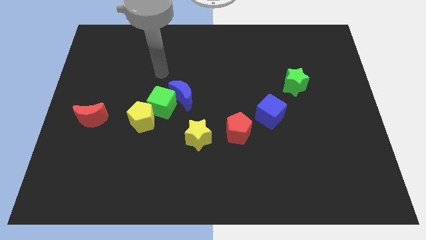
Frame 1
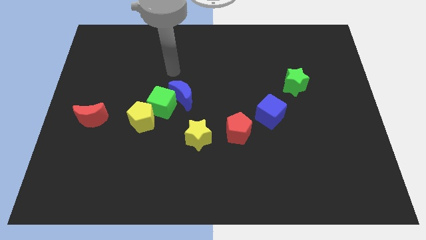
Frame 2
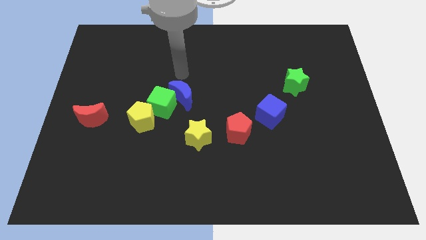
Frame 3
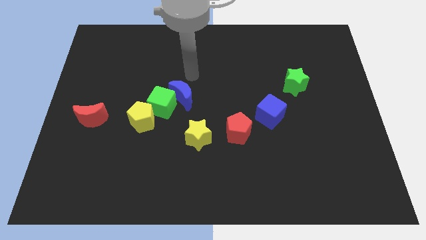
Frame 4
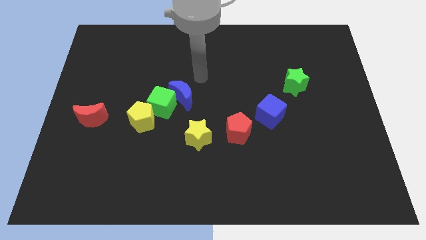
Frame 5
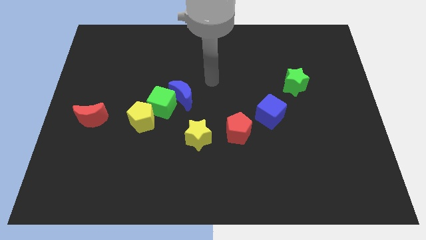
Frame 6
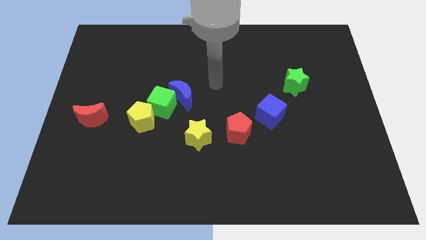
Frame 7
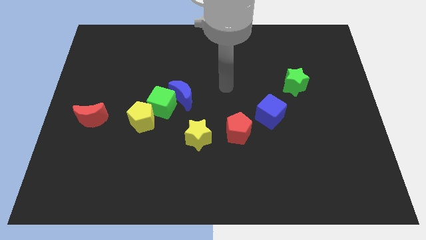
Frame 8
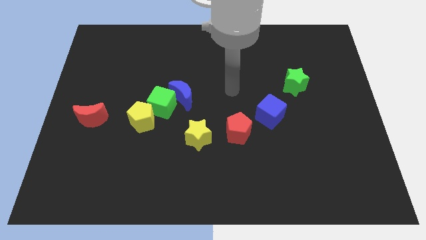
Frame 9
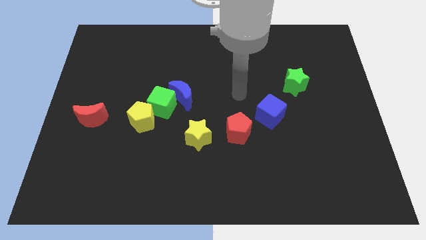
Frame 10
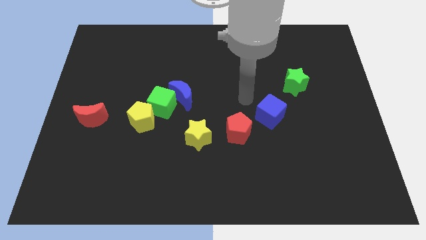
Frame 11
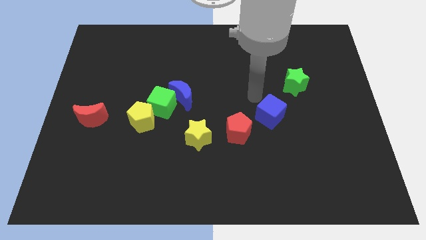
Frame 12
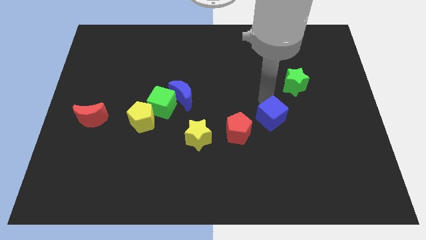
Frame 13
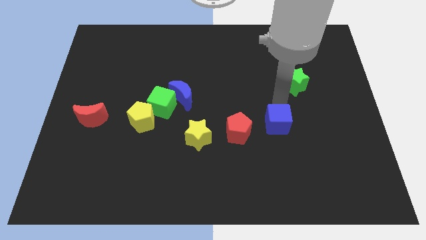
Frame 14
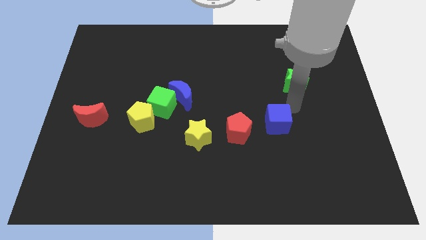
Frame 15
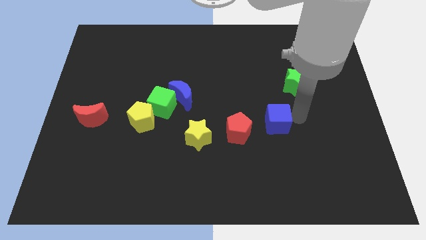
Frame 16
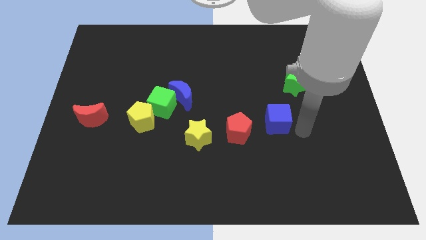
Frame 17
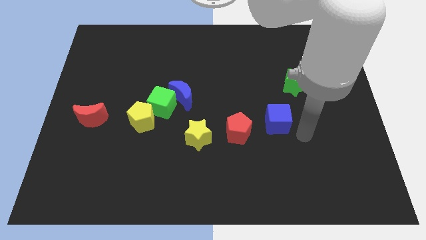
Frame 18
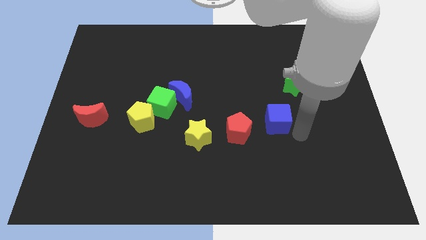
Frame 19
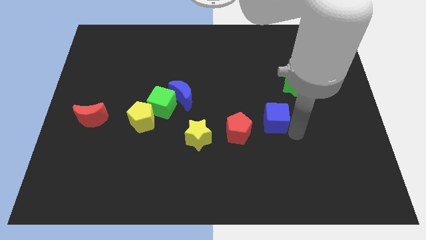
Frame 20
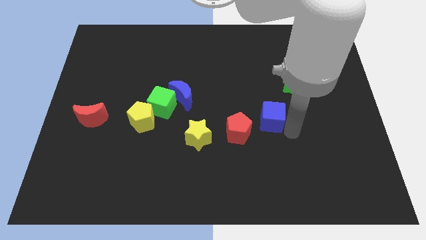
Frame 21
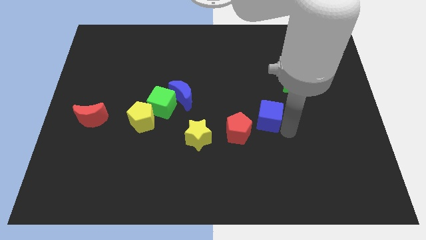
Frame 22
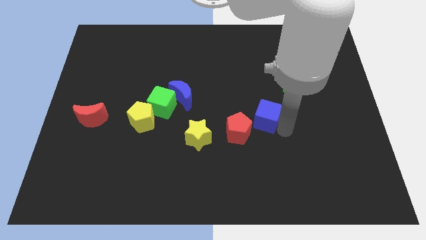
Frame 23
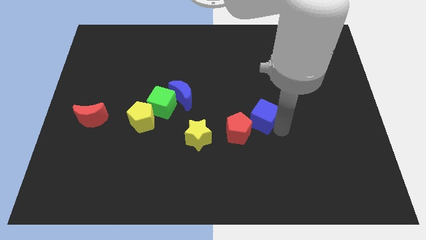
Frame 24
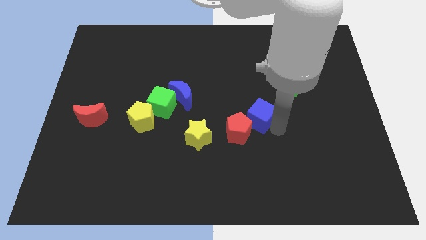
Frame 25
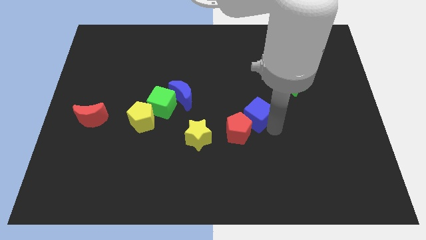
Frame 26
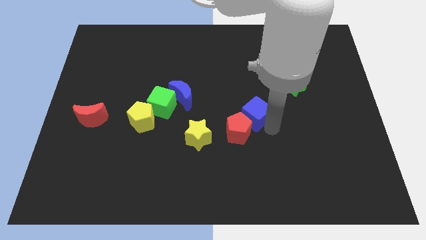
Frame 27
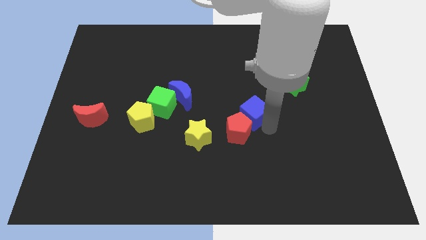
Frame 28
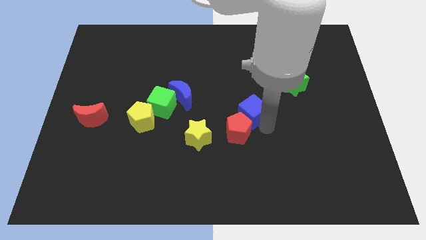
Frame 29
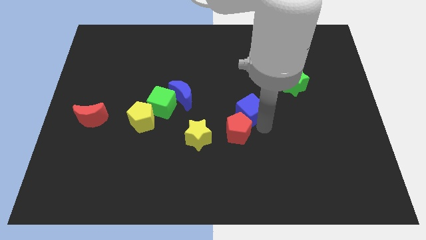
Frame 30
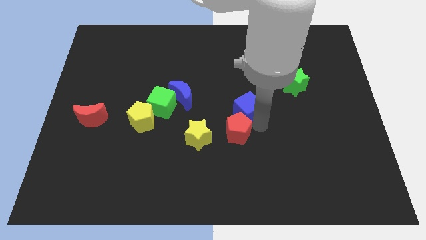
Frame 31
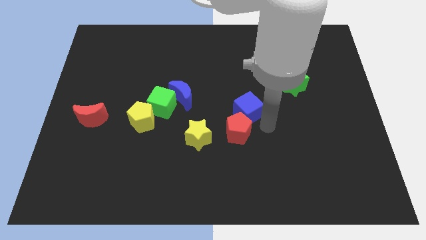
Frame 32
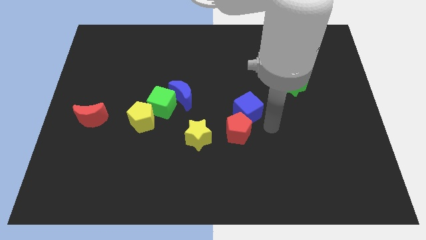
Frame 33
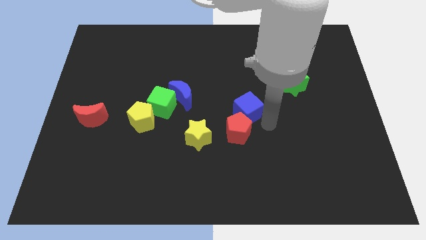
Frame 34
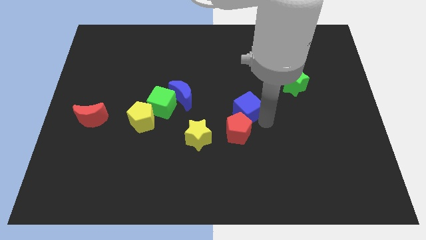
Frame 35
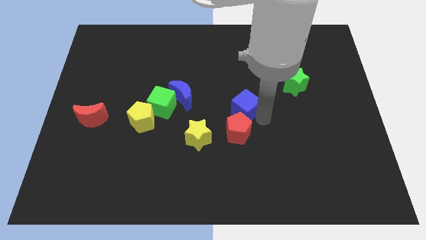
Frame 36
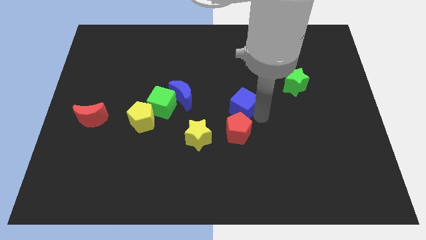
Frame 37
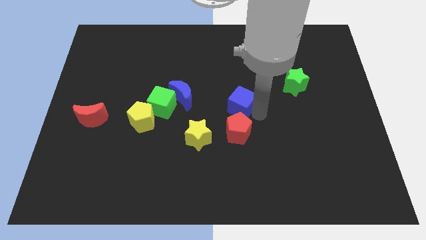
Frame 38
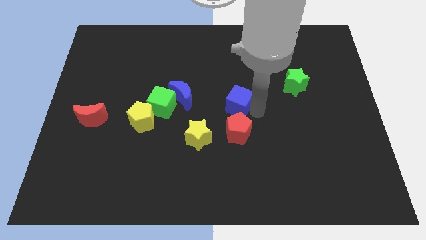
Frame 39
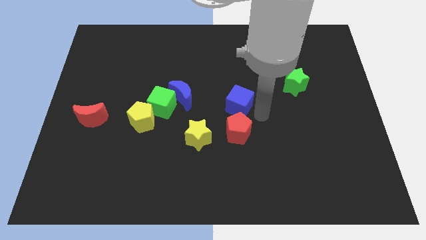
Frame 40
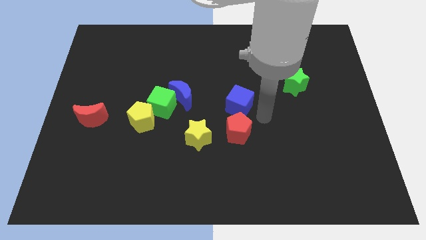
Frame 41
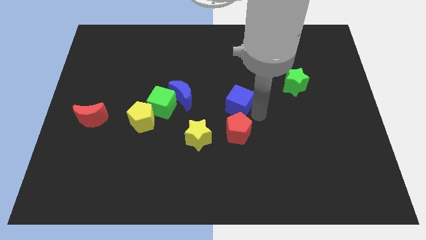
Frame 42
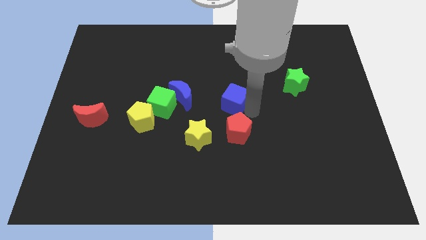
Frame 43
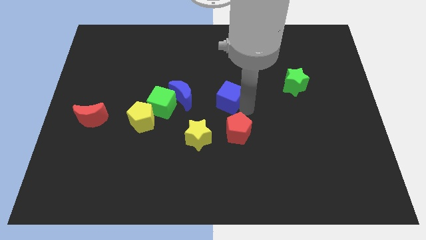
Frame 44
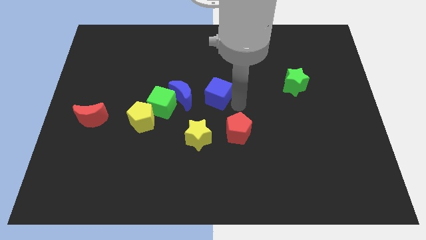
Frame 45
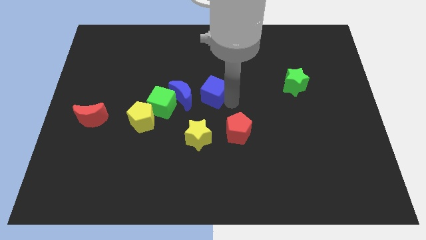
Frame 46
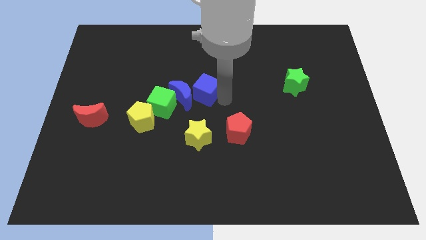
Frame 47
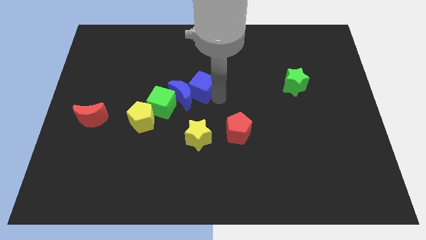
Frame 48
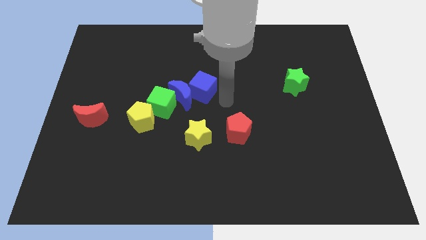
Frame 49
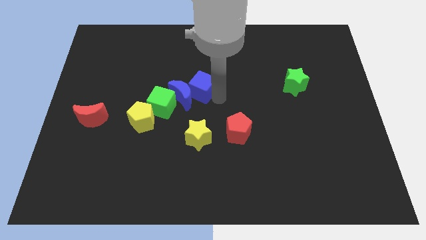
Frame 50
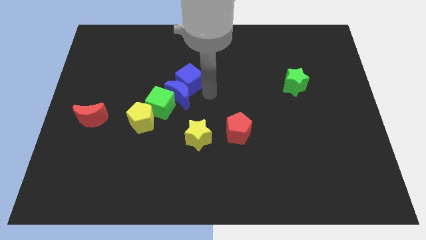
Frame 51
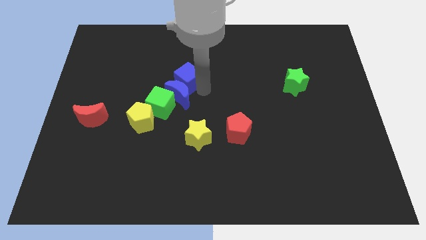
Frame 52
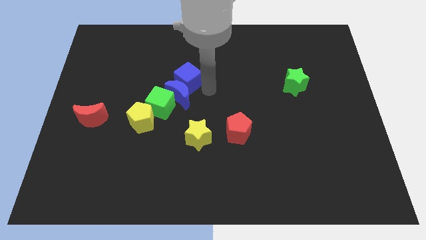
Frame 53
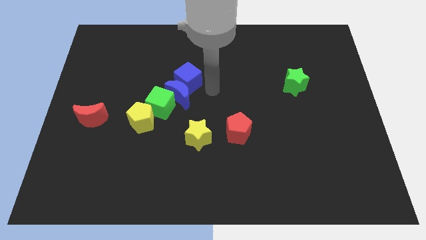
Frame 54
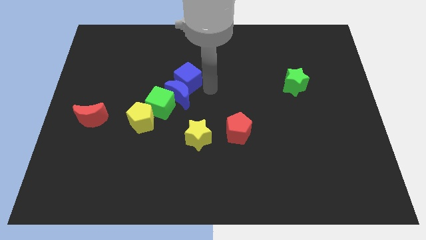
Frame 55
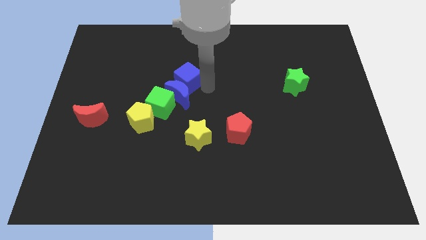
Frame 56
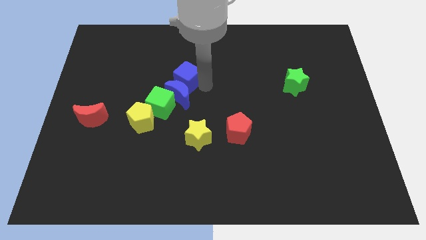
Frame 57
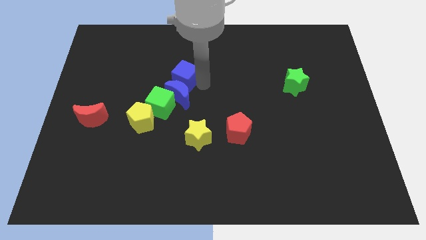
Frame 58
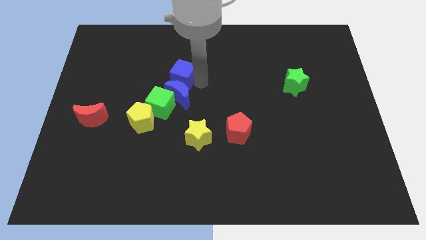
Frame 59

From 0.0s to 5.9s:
slide the blue cube above the green cube

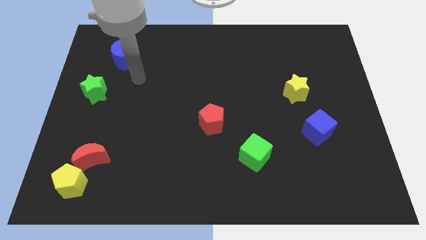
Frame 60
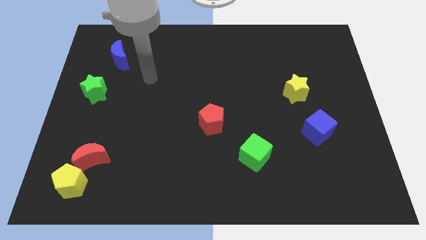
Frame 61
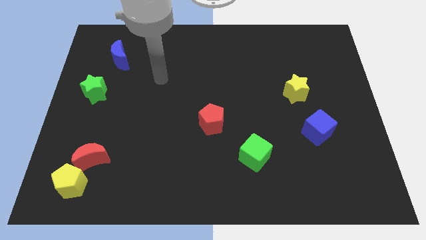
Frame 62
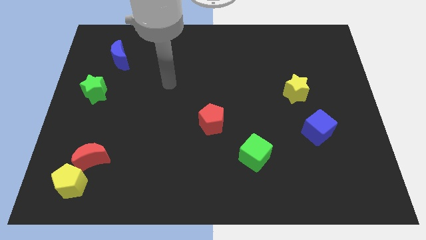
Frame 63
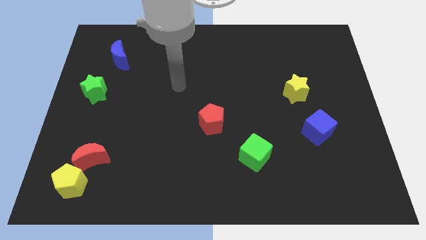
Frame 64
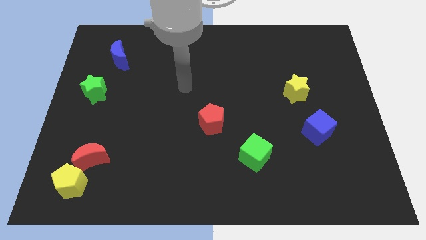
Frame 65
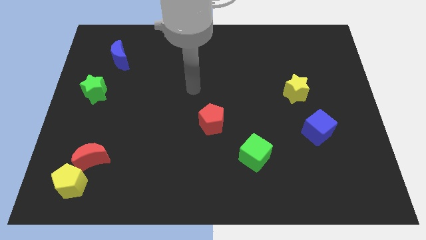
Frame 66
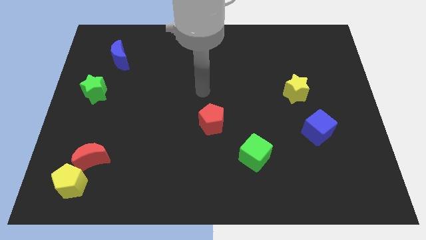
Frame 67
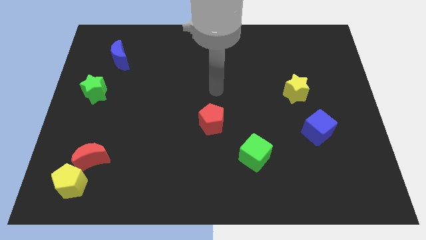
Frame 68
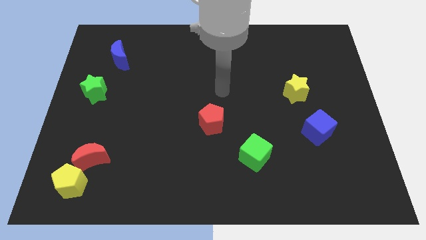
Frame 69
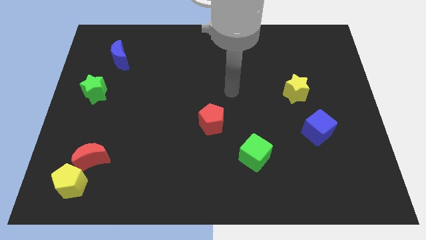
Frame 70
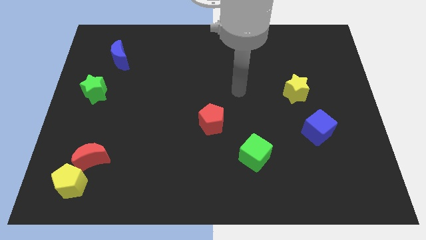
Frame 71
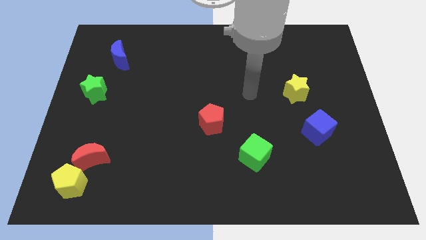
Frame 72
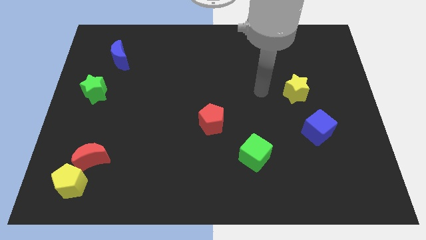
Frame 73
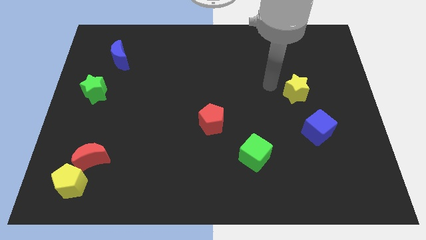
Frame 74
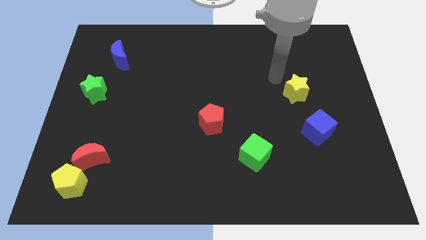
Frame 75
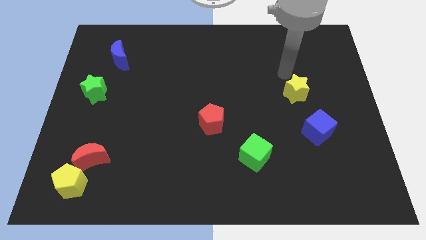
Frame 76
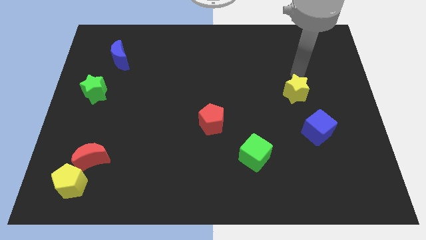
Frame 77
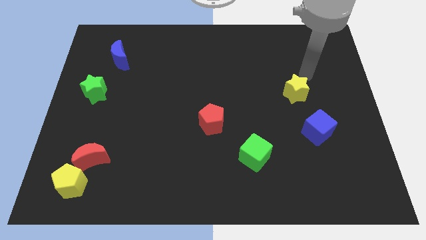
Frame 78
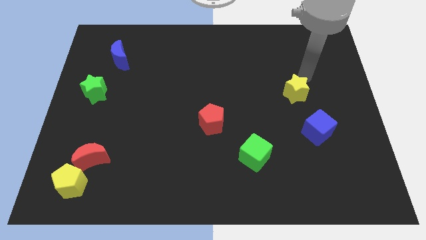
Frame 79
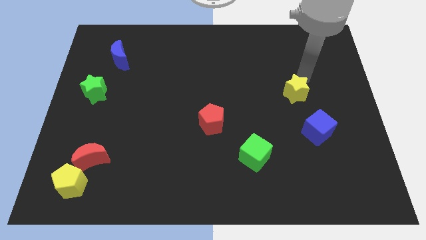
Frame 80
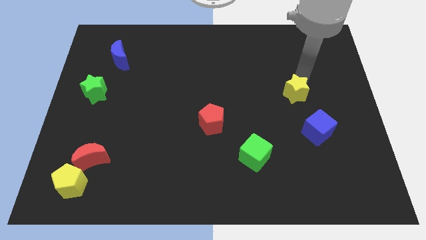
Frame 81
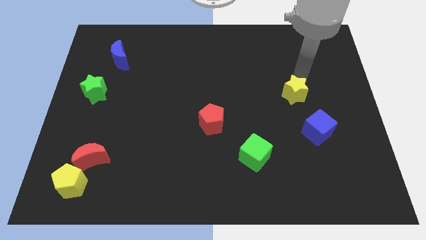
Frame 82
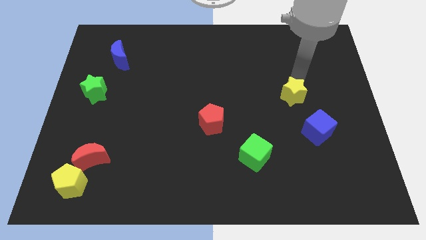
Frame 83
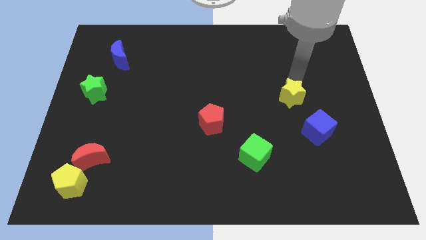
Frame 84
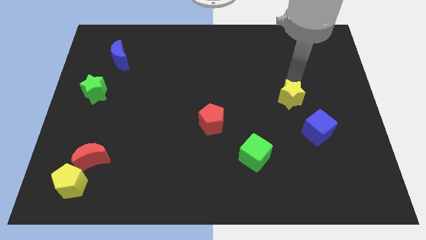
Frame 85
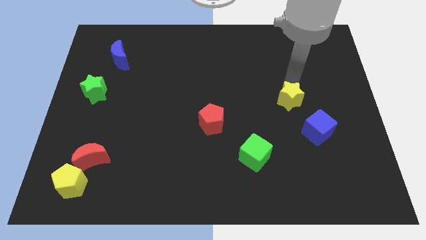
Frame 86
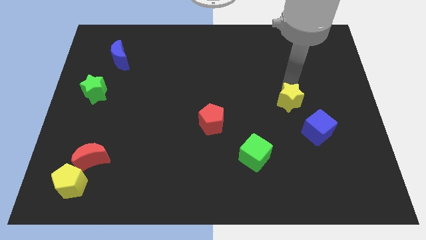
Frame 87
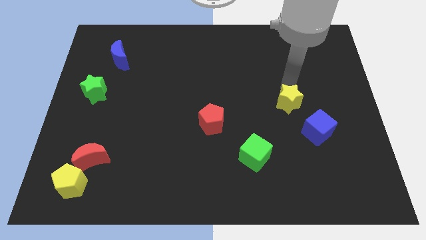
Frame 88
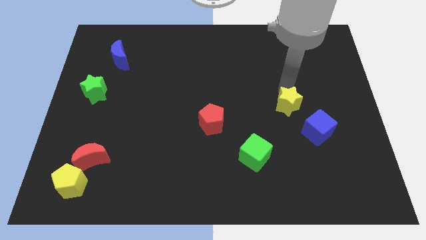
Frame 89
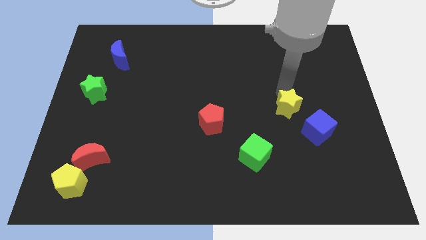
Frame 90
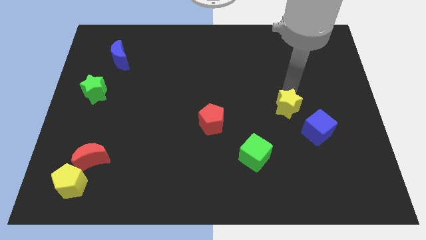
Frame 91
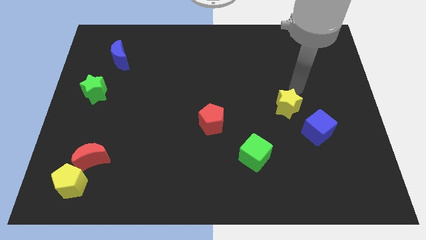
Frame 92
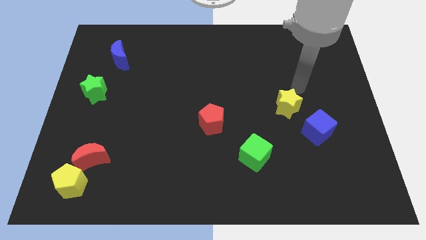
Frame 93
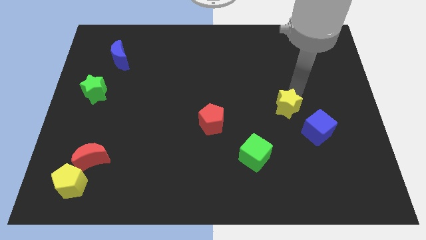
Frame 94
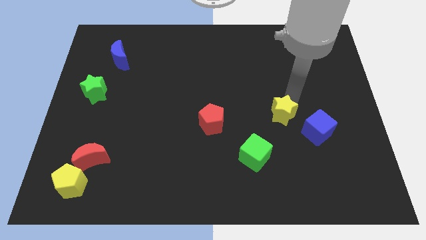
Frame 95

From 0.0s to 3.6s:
put the yellow star to the left side of the blue cube
